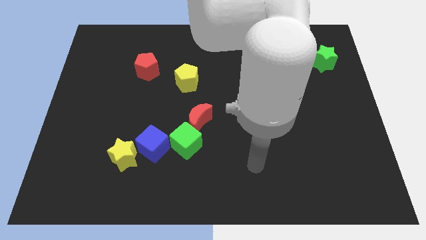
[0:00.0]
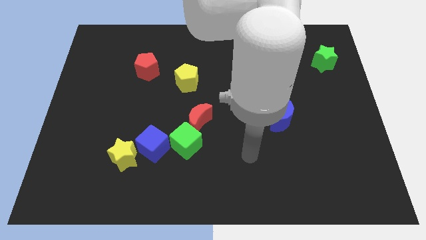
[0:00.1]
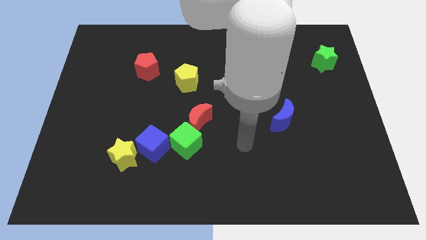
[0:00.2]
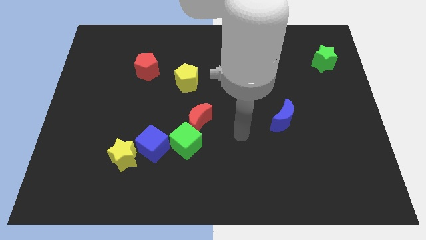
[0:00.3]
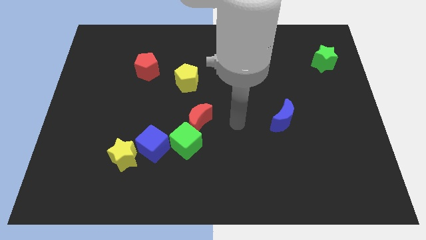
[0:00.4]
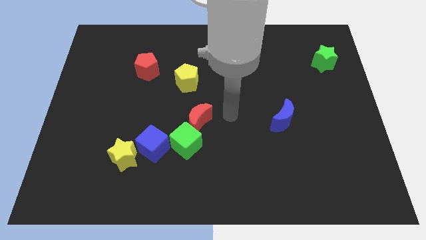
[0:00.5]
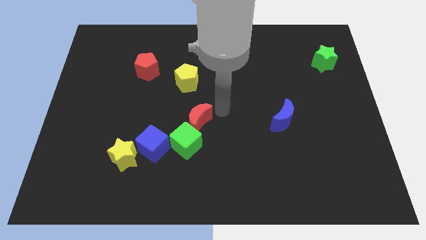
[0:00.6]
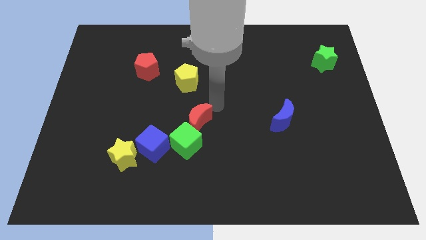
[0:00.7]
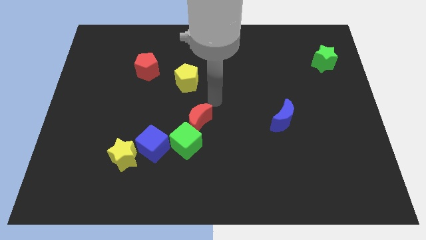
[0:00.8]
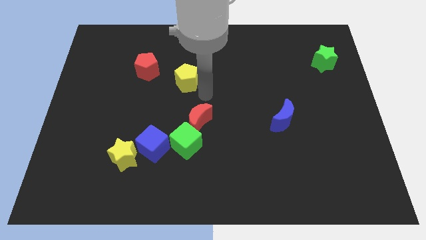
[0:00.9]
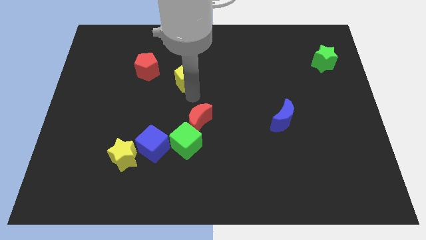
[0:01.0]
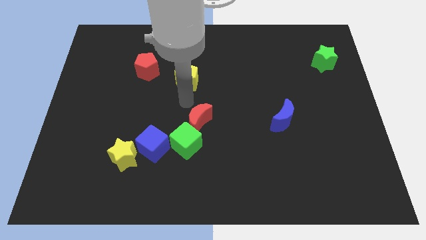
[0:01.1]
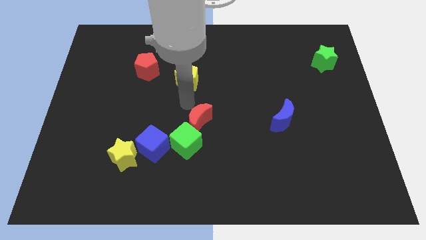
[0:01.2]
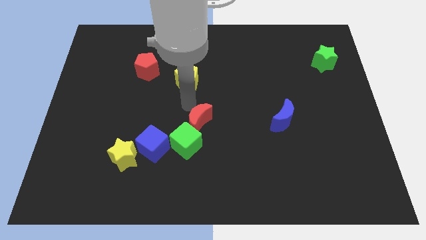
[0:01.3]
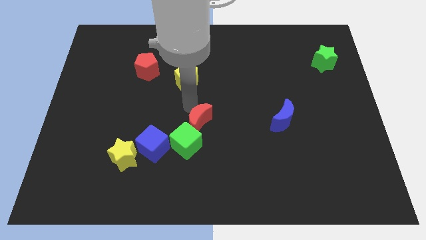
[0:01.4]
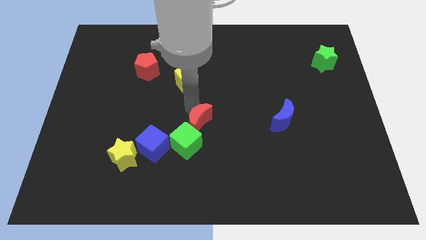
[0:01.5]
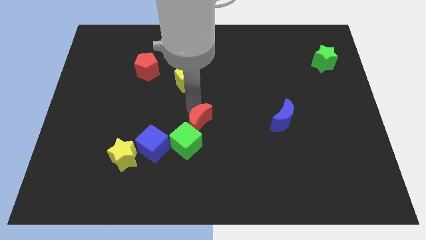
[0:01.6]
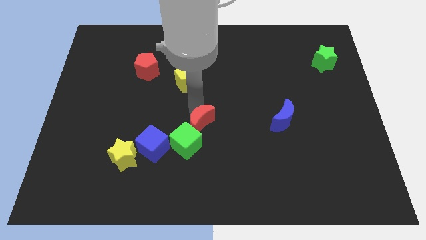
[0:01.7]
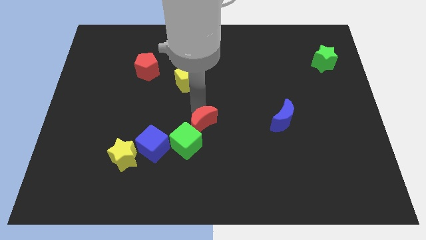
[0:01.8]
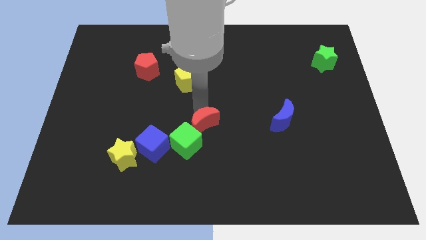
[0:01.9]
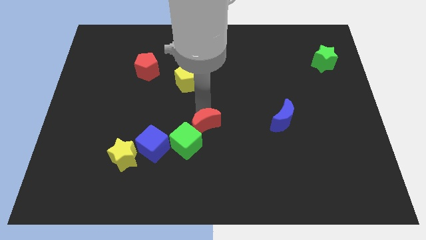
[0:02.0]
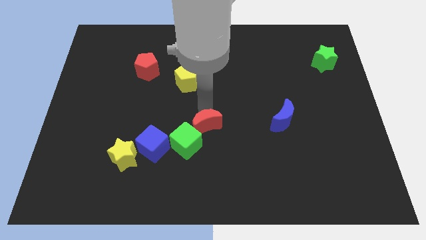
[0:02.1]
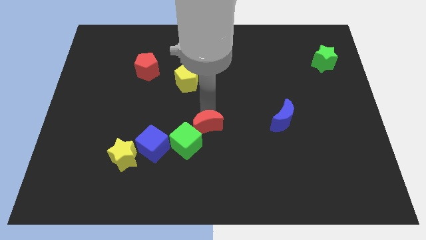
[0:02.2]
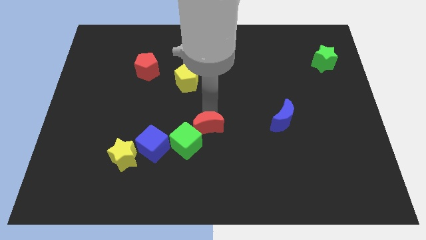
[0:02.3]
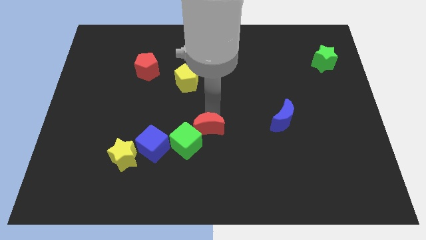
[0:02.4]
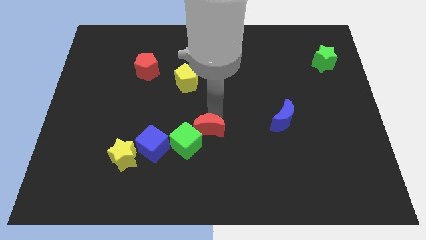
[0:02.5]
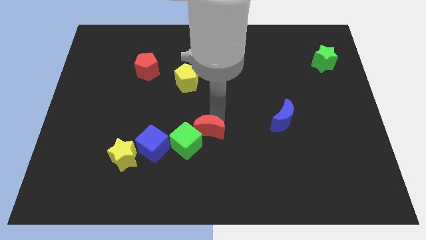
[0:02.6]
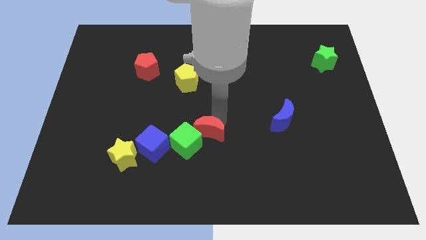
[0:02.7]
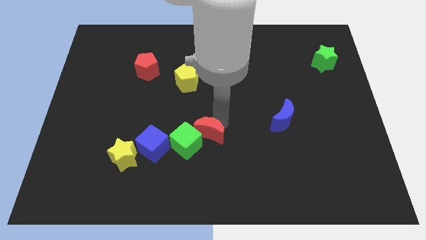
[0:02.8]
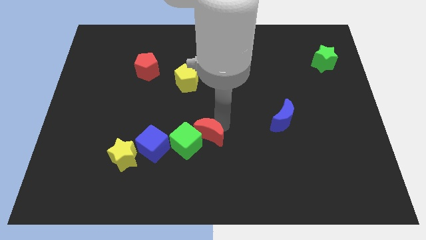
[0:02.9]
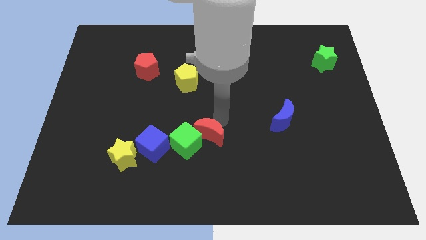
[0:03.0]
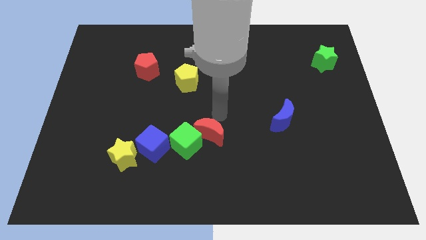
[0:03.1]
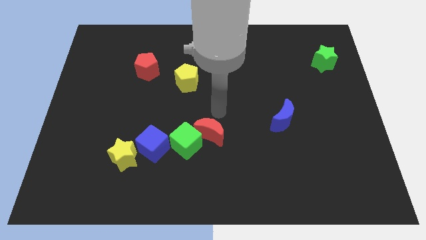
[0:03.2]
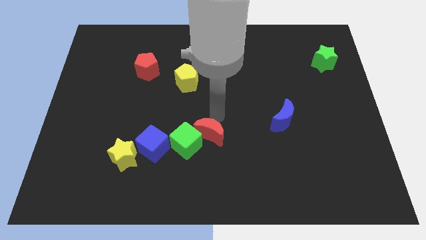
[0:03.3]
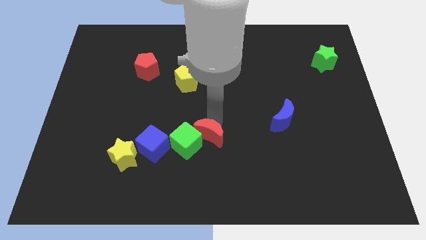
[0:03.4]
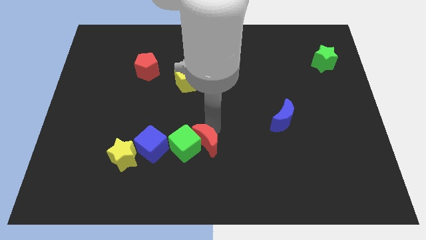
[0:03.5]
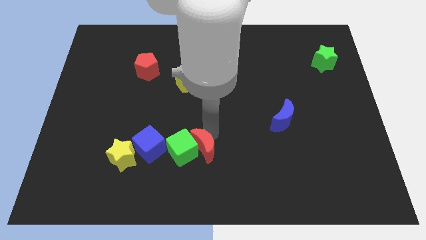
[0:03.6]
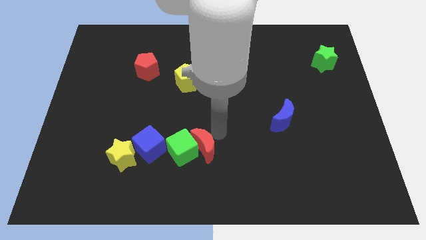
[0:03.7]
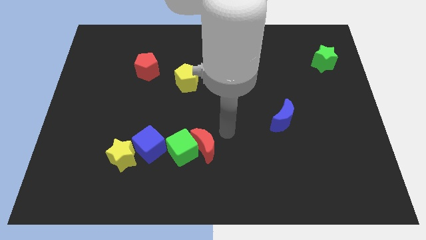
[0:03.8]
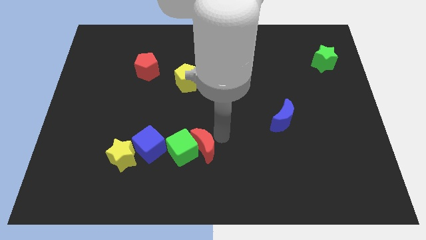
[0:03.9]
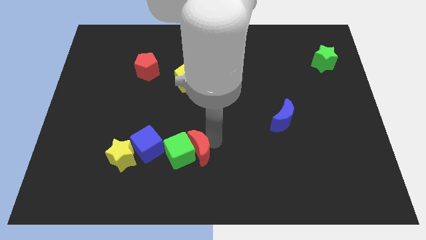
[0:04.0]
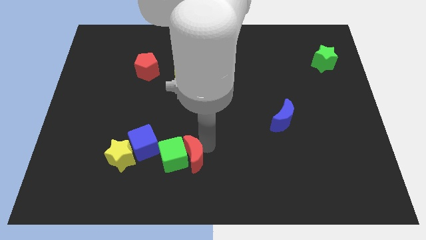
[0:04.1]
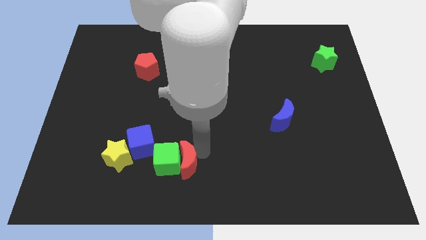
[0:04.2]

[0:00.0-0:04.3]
push the red moon somewhat down and to the left

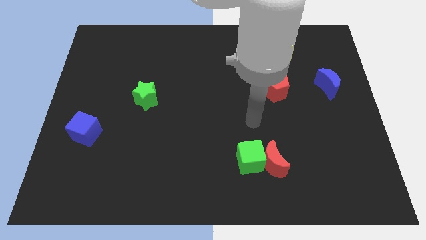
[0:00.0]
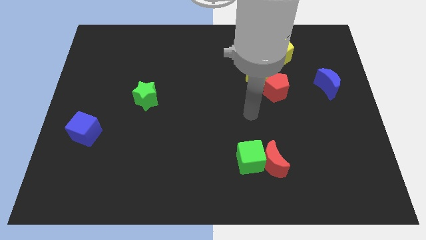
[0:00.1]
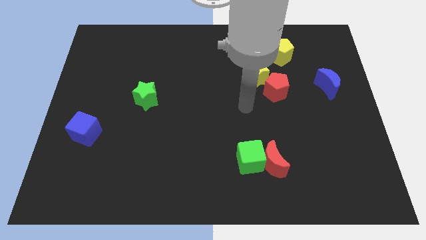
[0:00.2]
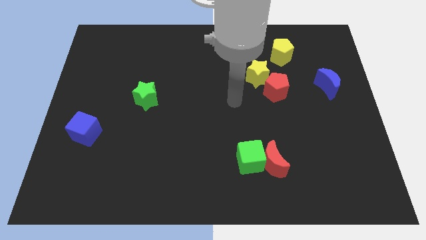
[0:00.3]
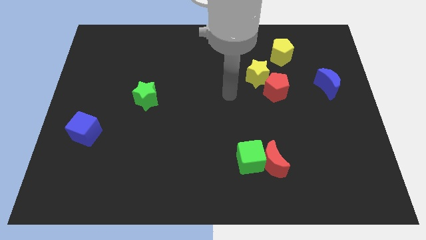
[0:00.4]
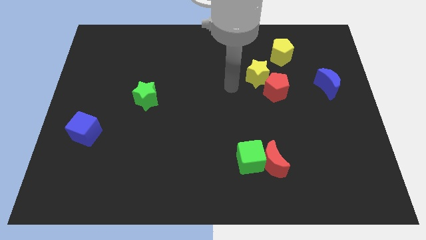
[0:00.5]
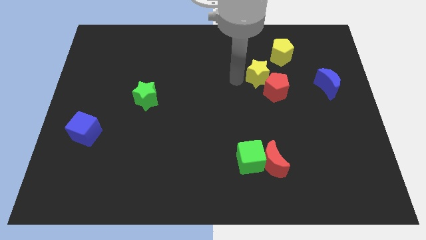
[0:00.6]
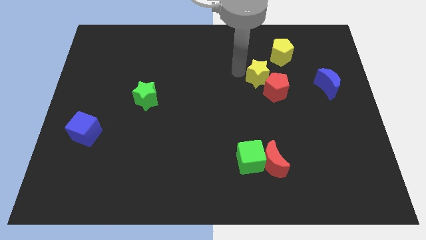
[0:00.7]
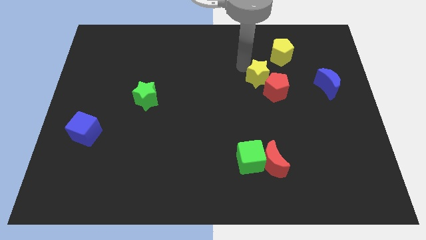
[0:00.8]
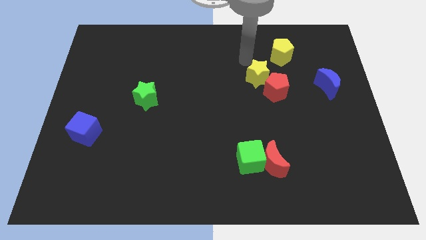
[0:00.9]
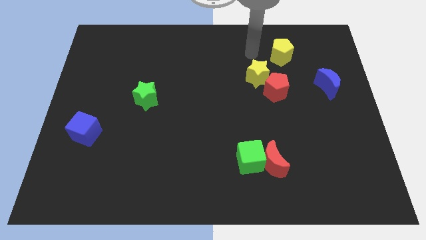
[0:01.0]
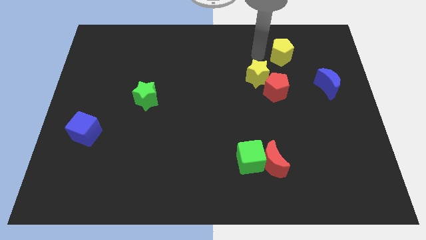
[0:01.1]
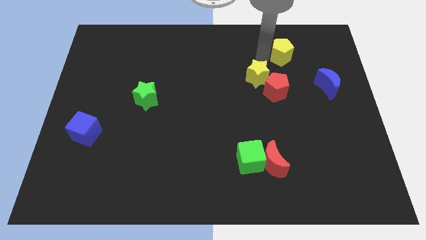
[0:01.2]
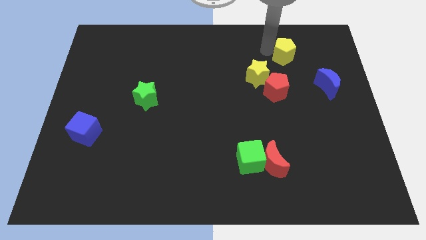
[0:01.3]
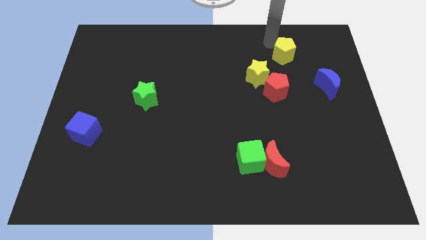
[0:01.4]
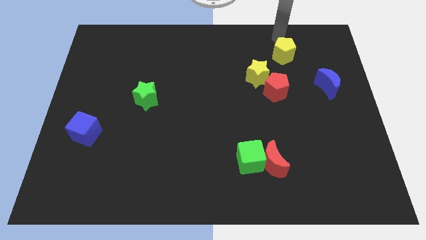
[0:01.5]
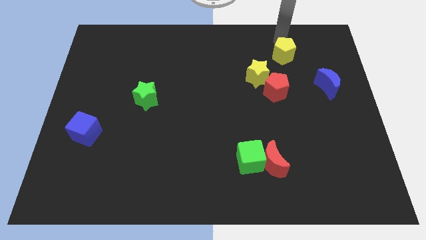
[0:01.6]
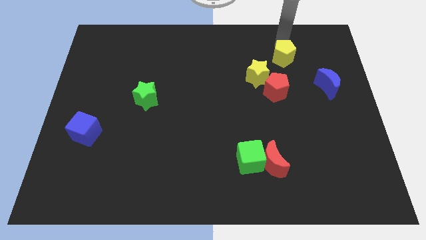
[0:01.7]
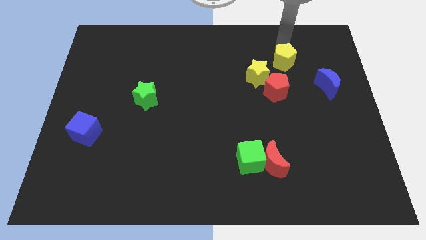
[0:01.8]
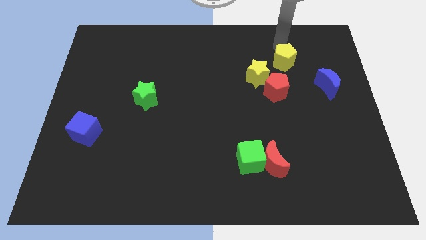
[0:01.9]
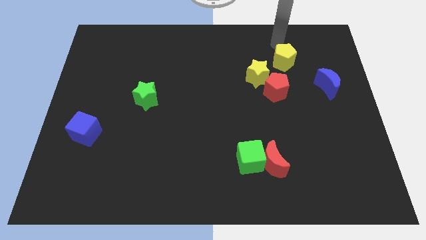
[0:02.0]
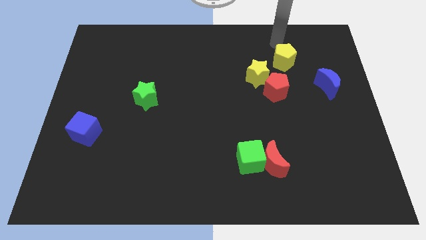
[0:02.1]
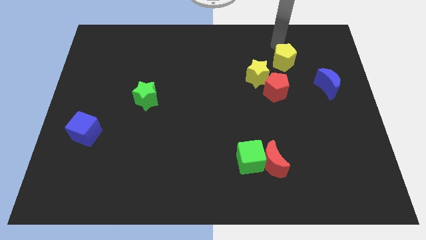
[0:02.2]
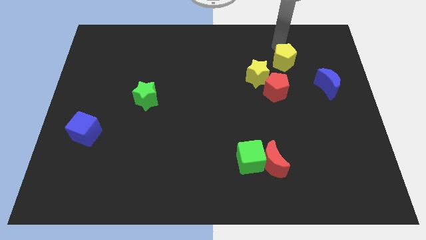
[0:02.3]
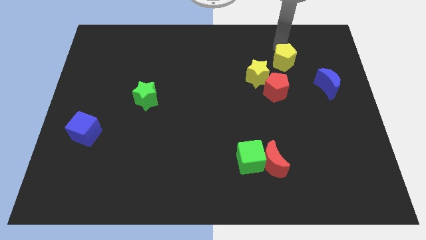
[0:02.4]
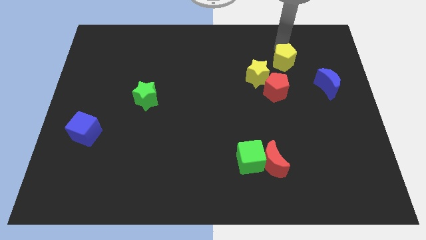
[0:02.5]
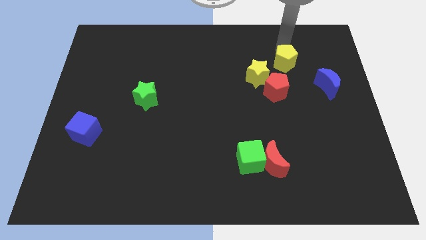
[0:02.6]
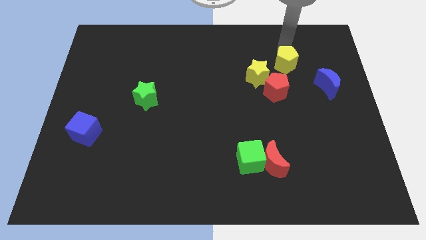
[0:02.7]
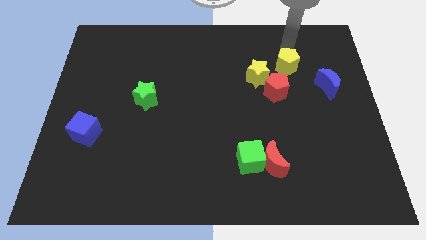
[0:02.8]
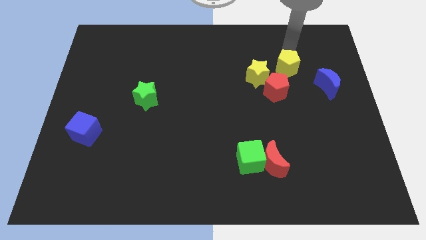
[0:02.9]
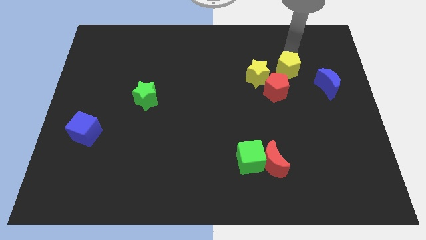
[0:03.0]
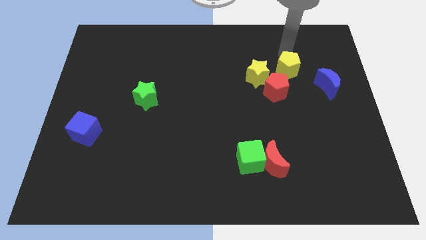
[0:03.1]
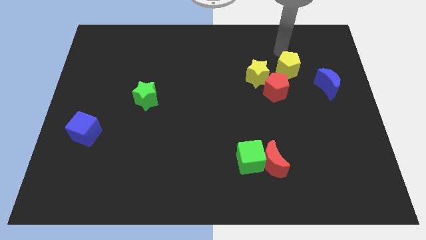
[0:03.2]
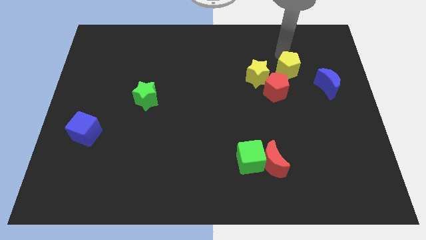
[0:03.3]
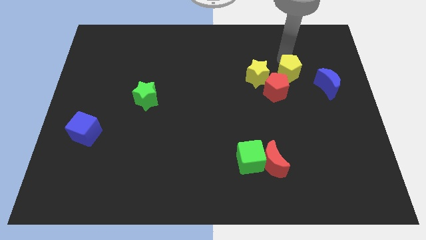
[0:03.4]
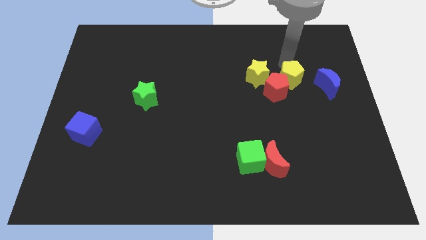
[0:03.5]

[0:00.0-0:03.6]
push the yellow pentagon down slightly
